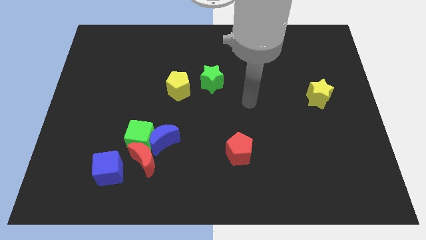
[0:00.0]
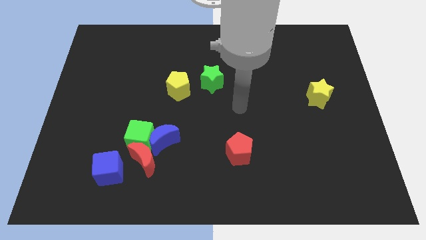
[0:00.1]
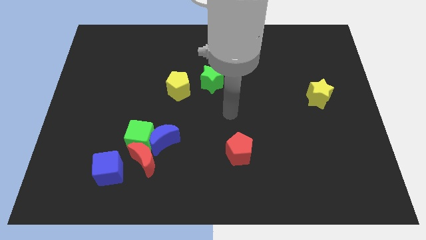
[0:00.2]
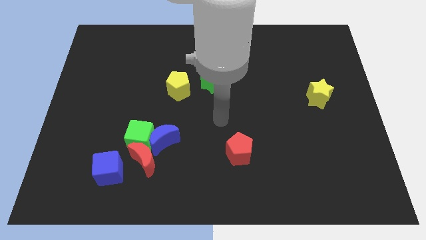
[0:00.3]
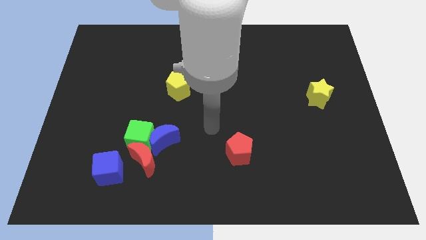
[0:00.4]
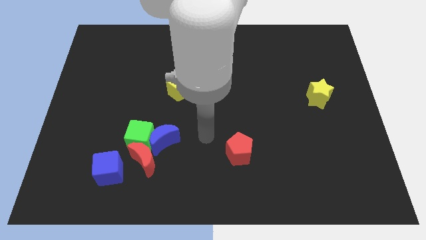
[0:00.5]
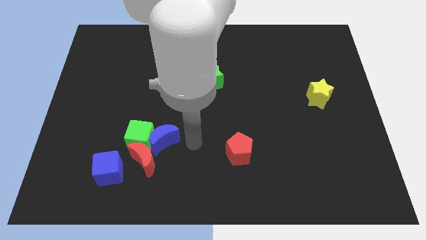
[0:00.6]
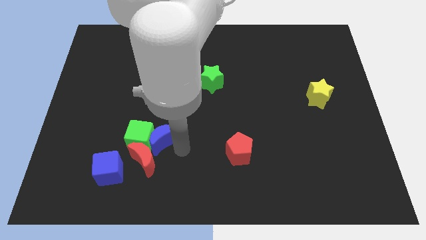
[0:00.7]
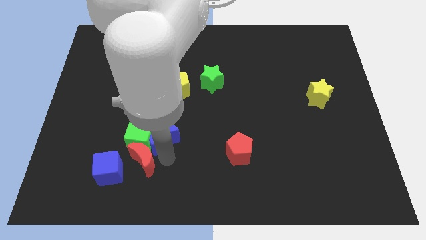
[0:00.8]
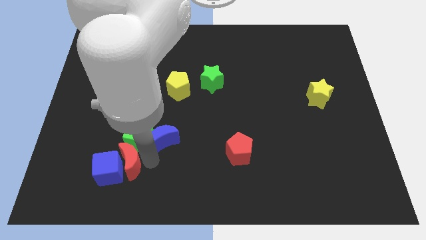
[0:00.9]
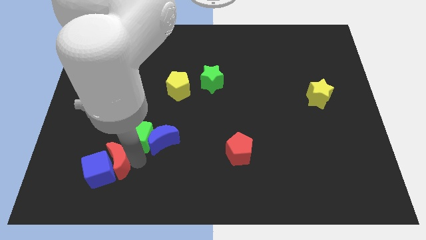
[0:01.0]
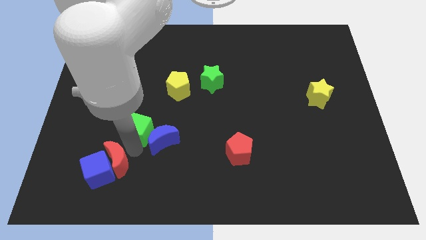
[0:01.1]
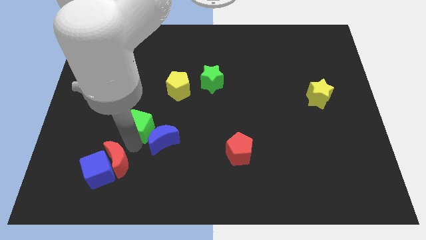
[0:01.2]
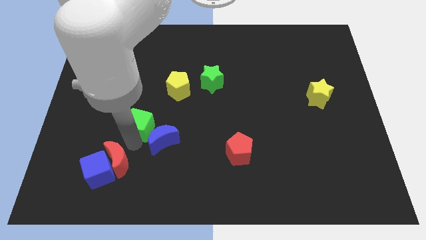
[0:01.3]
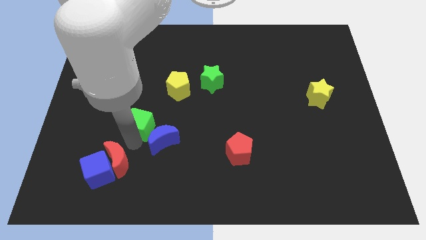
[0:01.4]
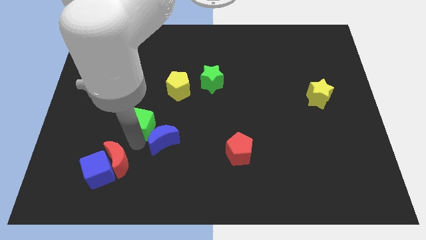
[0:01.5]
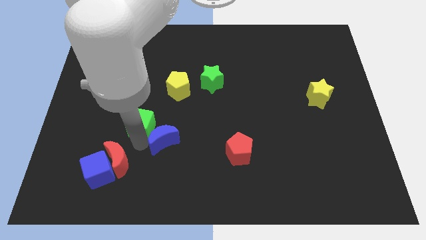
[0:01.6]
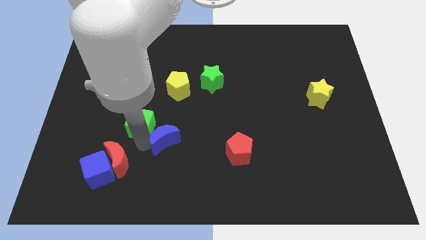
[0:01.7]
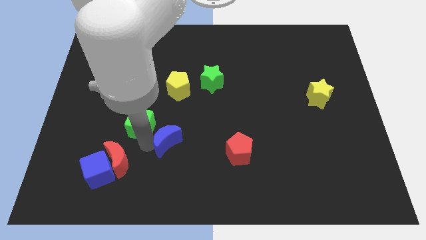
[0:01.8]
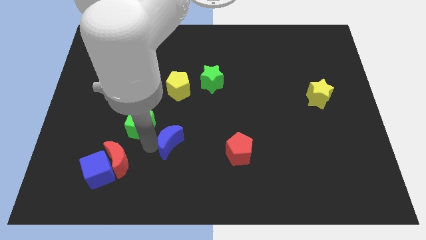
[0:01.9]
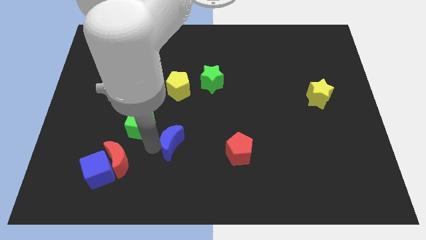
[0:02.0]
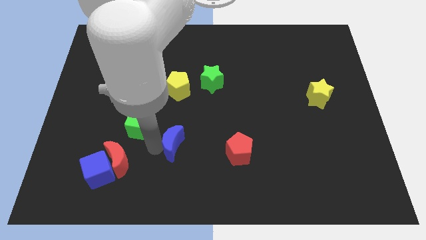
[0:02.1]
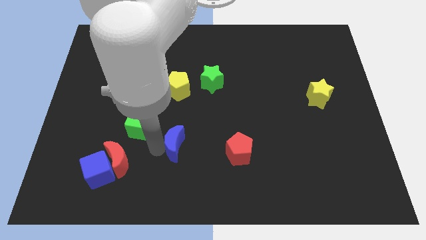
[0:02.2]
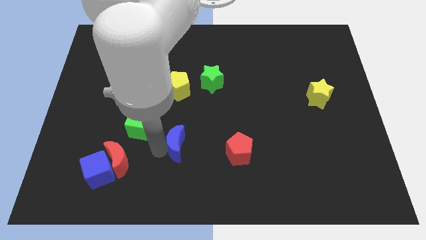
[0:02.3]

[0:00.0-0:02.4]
separate the blue moon from the green cube and red moon

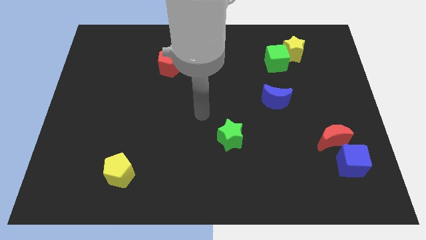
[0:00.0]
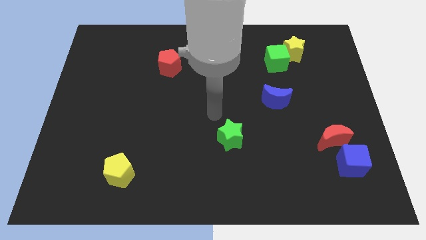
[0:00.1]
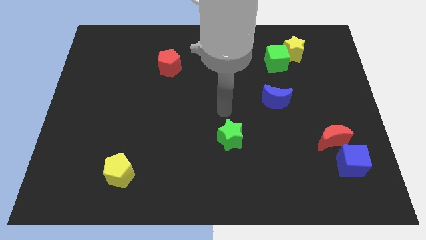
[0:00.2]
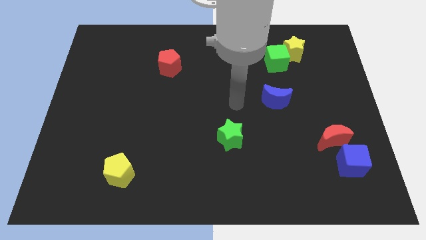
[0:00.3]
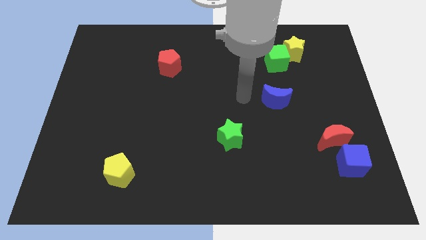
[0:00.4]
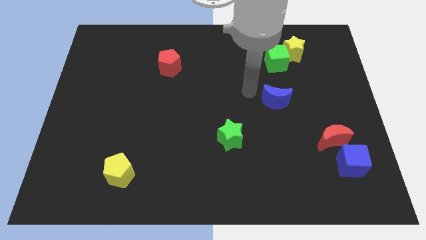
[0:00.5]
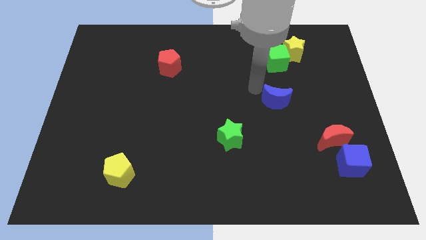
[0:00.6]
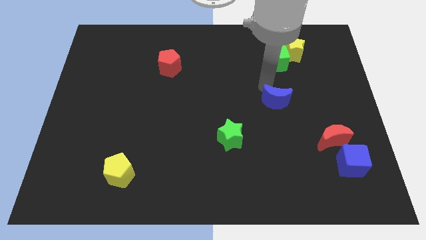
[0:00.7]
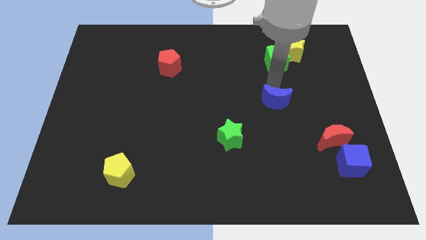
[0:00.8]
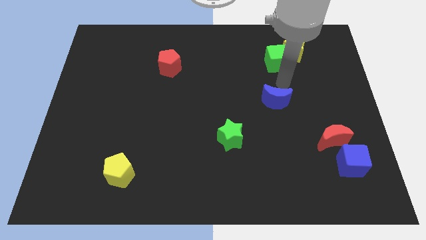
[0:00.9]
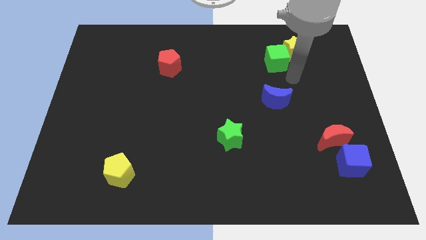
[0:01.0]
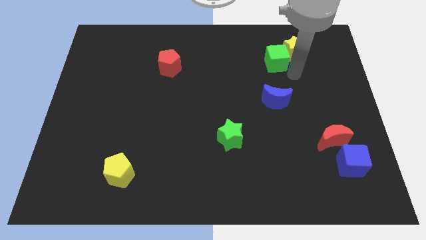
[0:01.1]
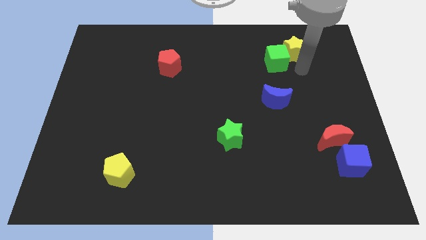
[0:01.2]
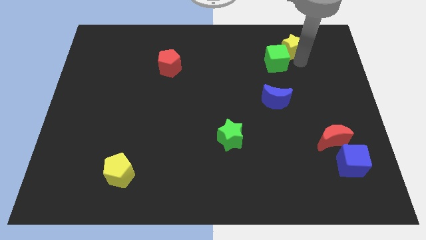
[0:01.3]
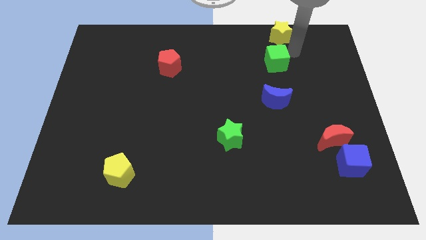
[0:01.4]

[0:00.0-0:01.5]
pull the green cube apart from the yellow star

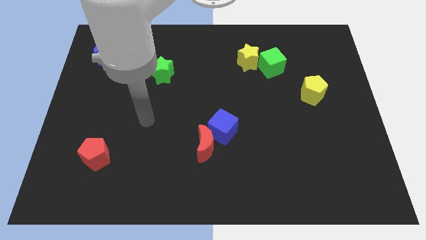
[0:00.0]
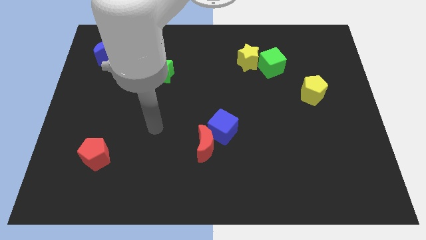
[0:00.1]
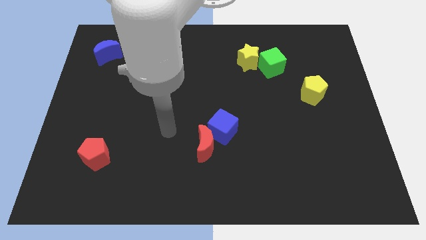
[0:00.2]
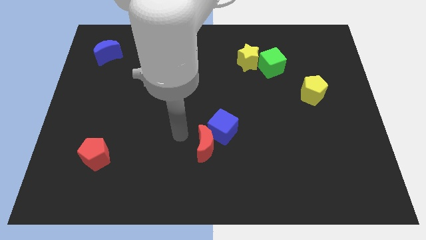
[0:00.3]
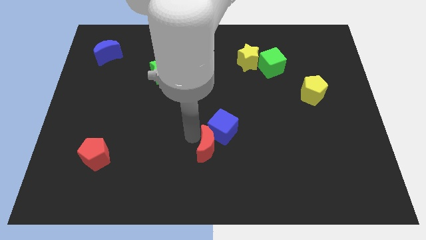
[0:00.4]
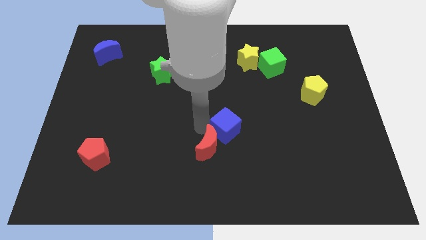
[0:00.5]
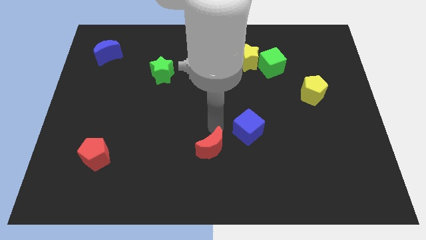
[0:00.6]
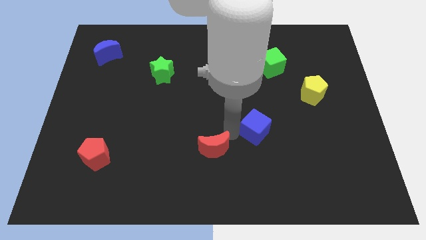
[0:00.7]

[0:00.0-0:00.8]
separate the red moon from the blue cube

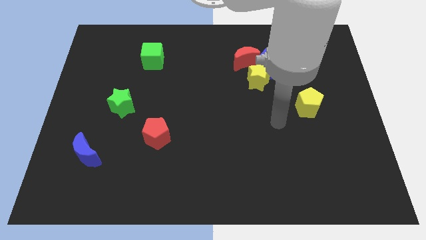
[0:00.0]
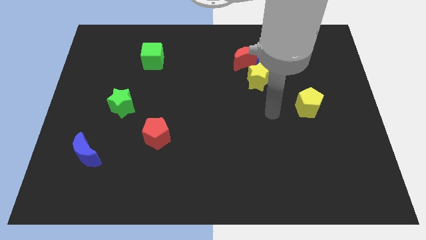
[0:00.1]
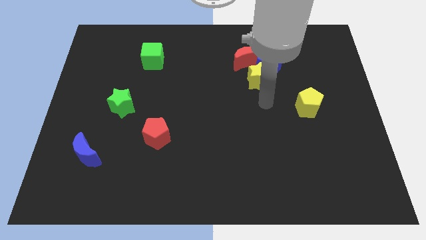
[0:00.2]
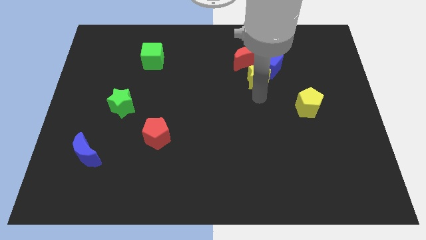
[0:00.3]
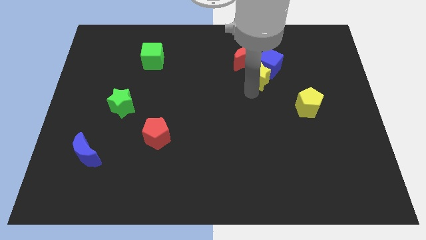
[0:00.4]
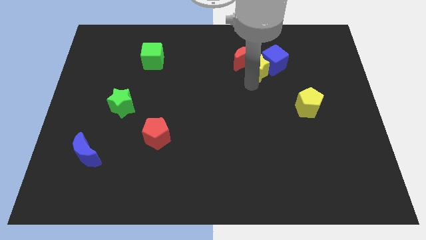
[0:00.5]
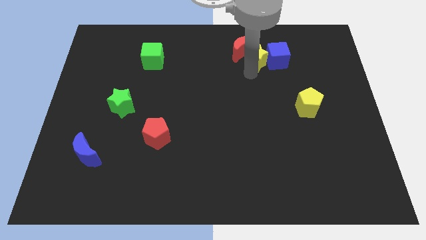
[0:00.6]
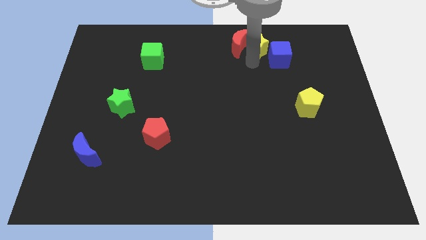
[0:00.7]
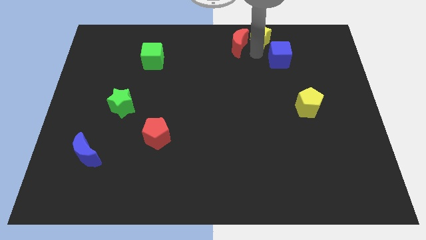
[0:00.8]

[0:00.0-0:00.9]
pull the blue cube apart from the yellow star and red moon

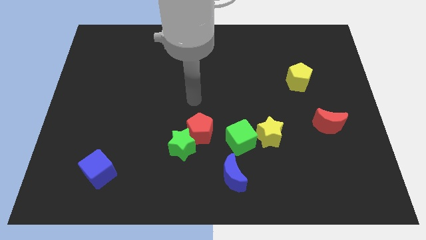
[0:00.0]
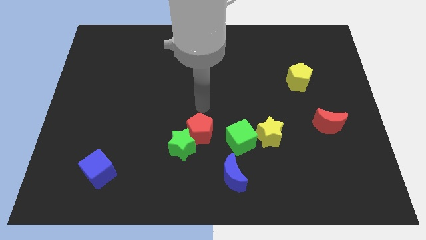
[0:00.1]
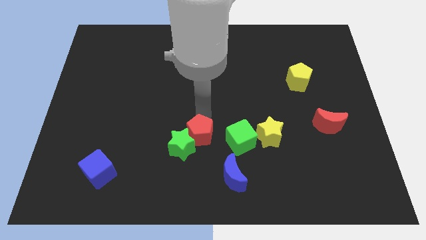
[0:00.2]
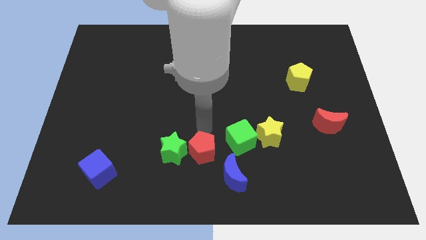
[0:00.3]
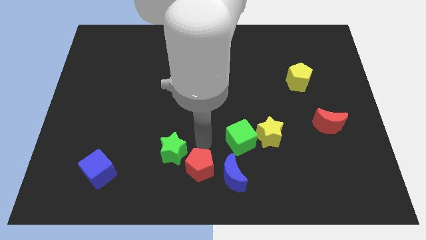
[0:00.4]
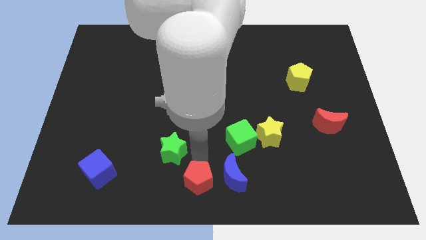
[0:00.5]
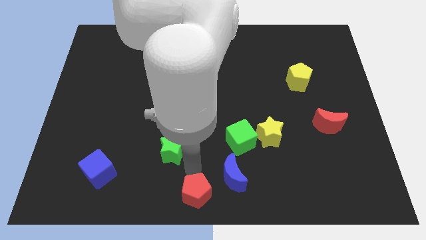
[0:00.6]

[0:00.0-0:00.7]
pull the green star apart from the red pentagon

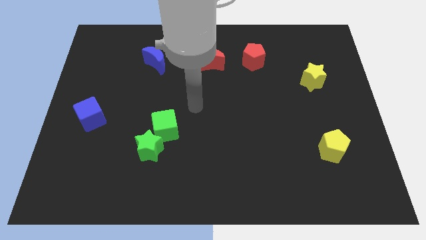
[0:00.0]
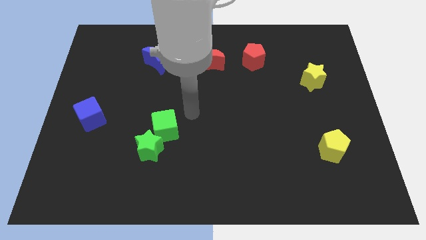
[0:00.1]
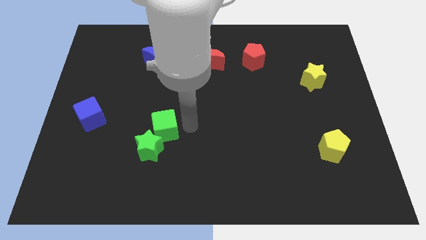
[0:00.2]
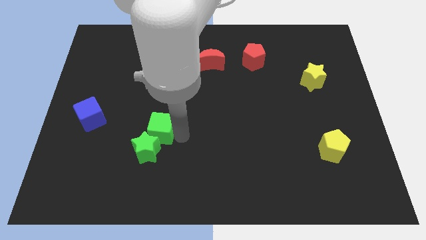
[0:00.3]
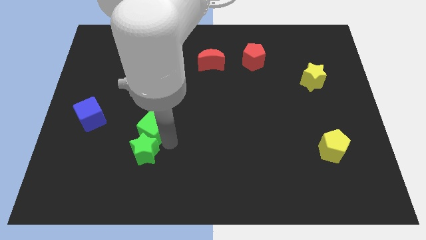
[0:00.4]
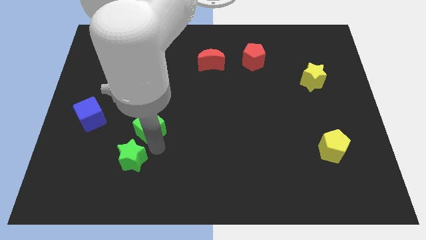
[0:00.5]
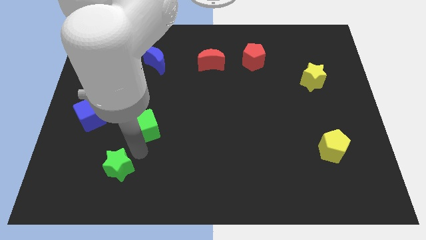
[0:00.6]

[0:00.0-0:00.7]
separate the green cube from the green star

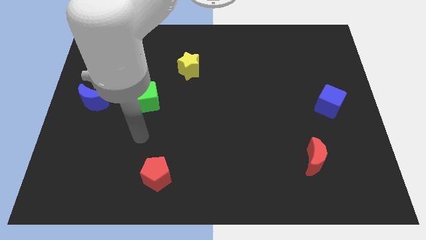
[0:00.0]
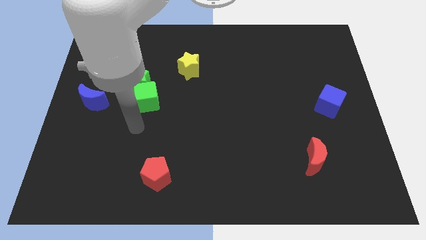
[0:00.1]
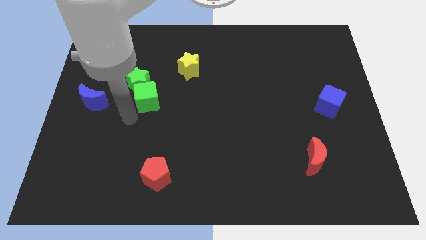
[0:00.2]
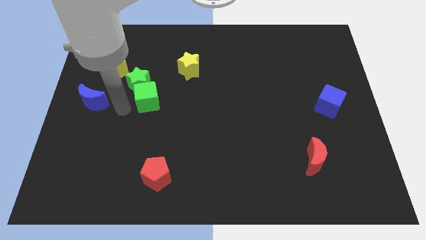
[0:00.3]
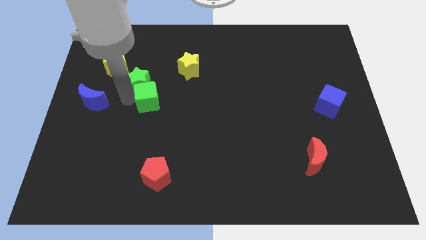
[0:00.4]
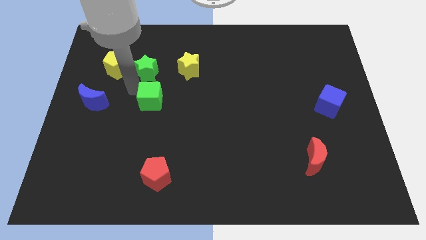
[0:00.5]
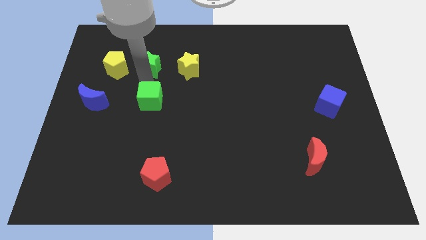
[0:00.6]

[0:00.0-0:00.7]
move the green cube away from the green star

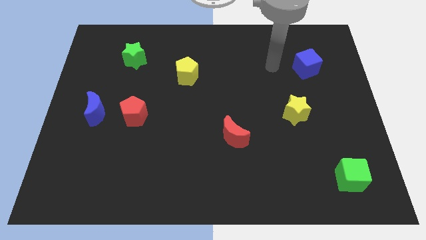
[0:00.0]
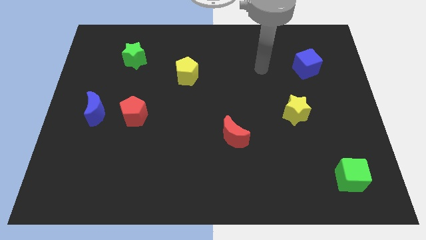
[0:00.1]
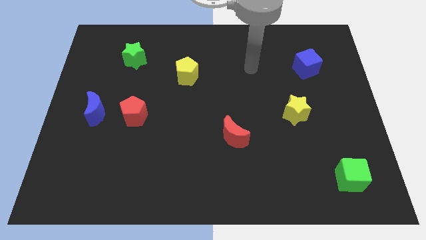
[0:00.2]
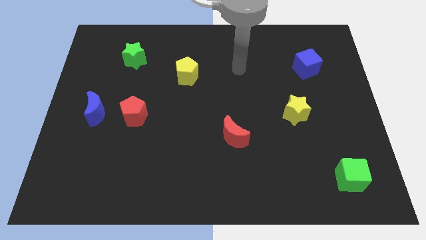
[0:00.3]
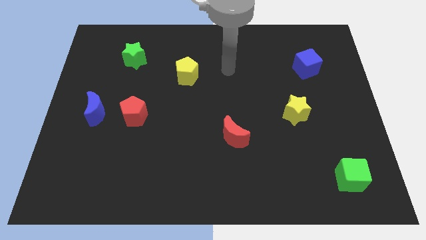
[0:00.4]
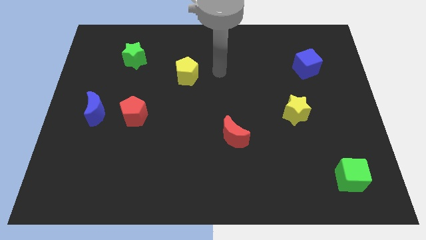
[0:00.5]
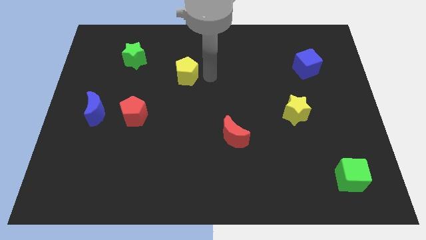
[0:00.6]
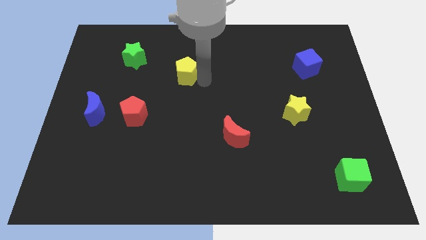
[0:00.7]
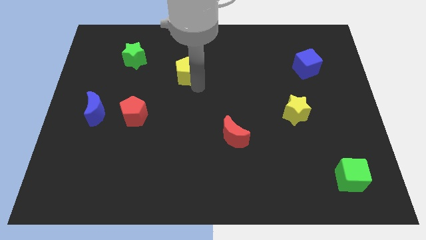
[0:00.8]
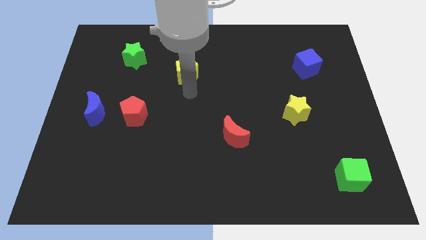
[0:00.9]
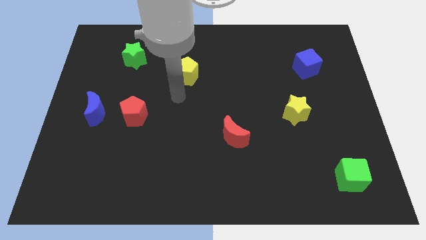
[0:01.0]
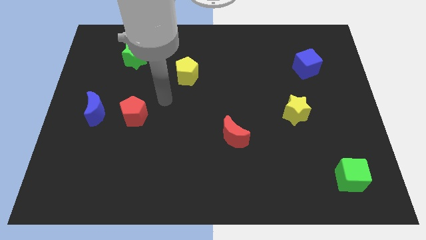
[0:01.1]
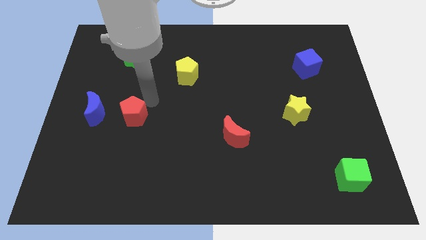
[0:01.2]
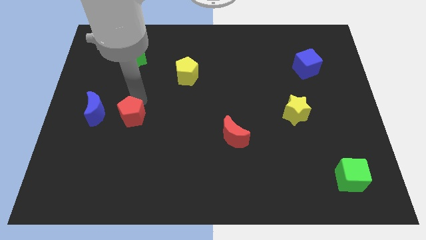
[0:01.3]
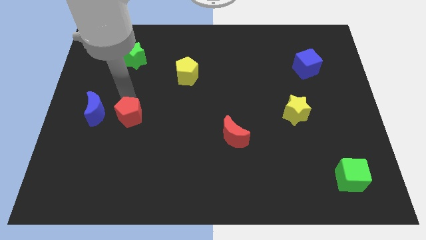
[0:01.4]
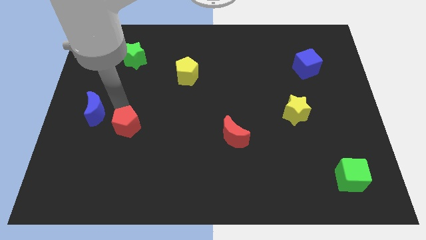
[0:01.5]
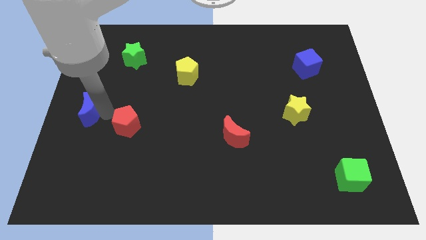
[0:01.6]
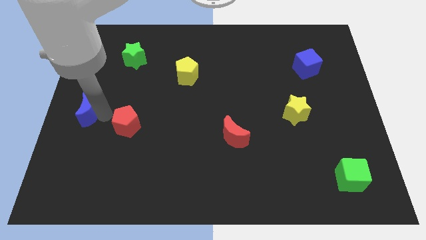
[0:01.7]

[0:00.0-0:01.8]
separate the red pentagon from the blue moon
